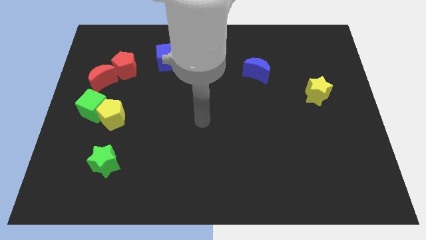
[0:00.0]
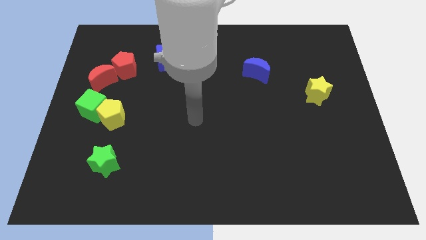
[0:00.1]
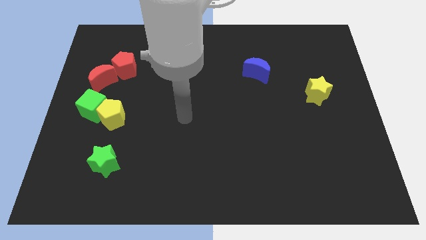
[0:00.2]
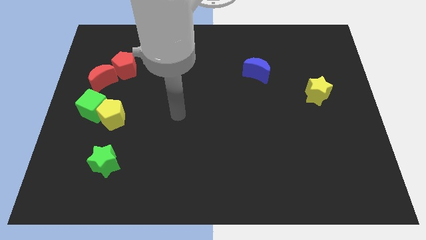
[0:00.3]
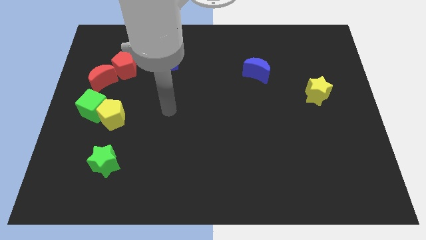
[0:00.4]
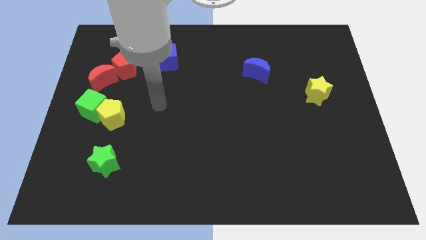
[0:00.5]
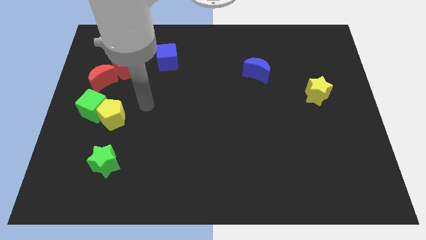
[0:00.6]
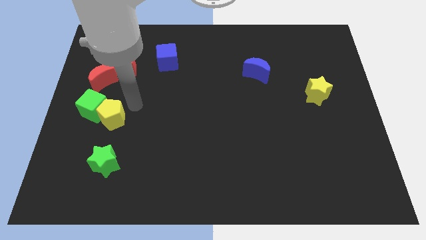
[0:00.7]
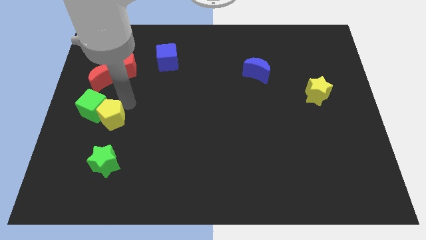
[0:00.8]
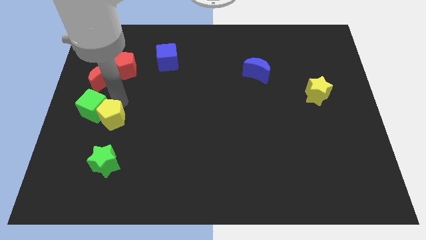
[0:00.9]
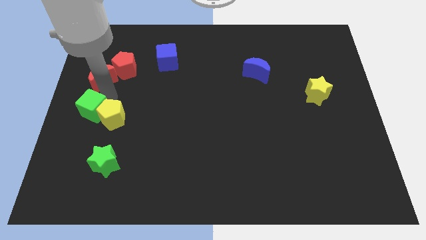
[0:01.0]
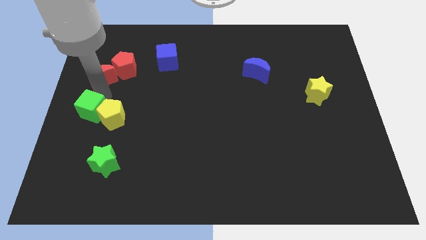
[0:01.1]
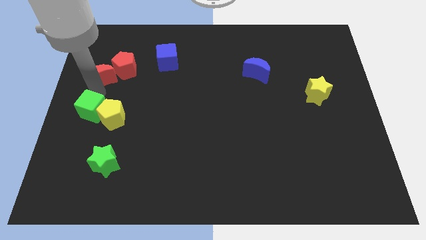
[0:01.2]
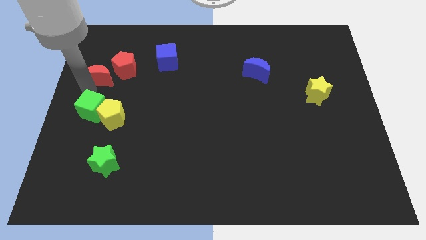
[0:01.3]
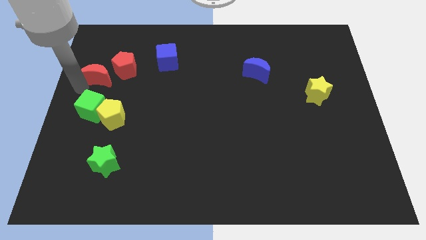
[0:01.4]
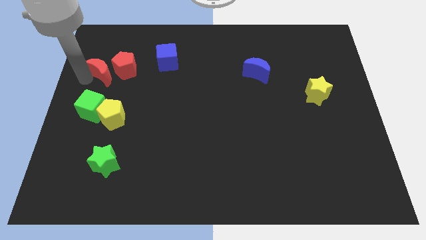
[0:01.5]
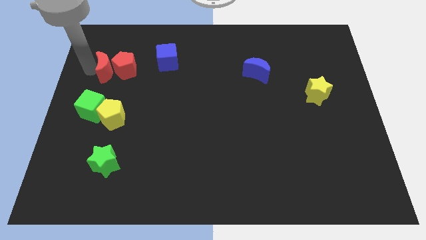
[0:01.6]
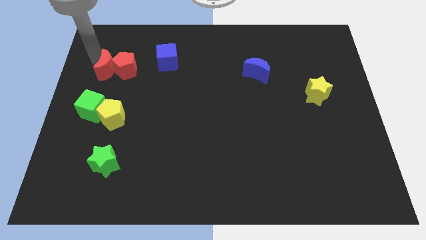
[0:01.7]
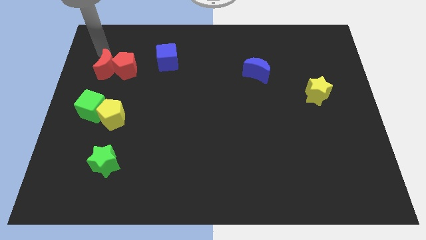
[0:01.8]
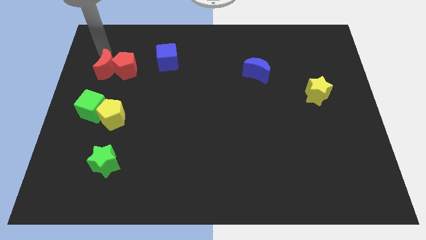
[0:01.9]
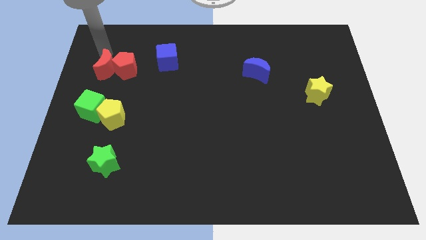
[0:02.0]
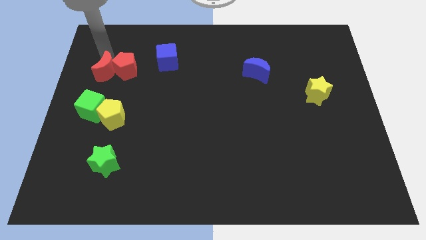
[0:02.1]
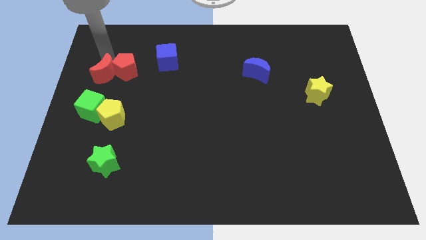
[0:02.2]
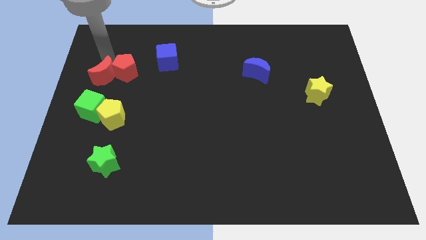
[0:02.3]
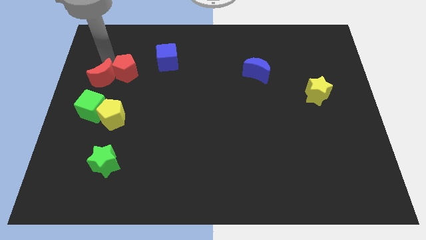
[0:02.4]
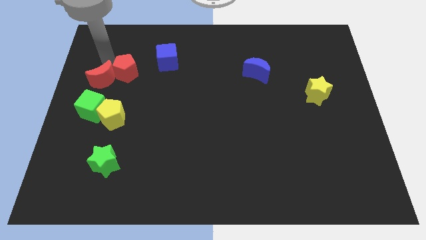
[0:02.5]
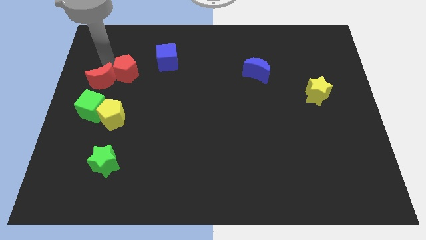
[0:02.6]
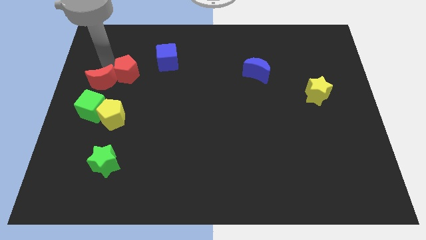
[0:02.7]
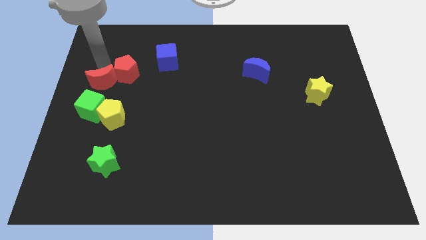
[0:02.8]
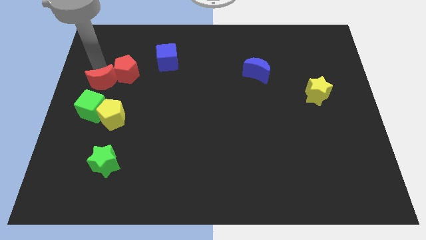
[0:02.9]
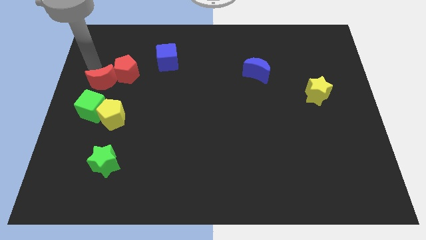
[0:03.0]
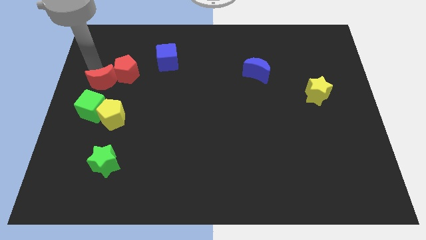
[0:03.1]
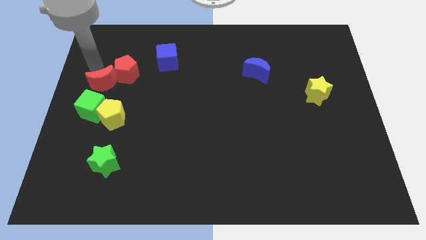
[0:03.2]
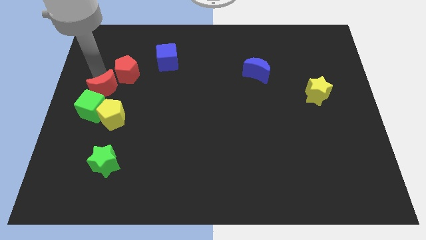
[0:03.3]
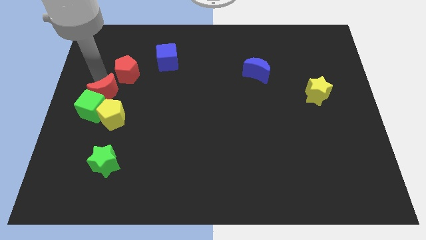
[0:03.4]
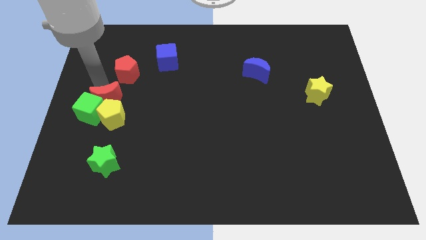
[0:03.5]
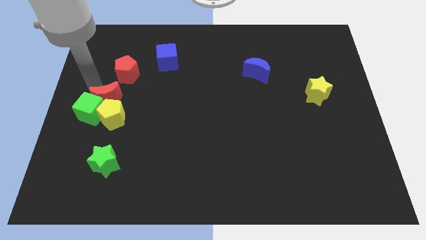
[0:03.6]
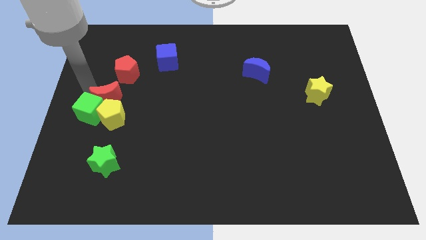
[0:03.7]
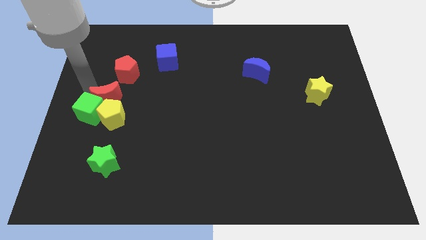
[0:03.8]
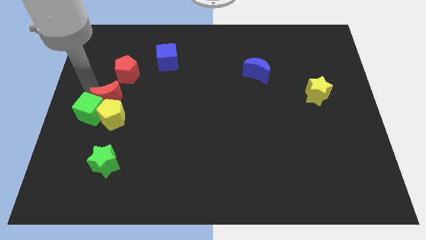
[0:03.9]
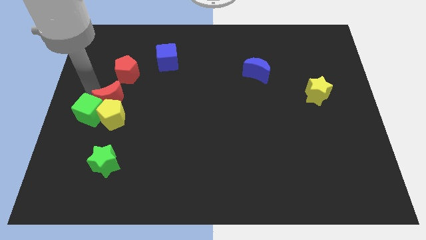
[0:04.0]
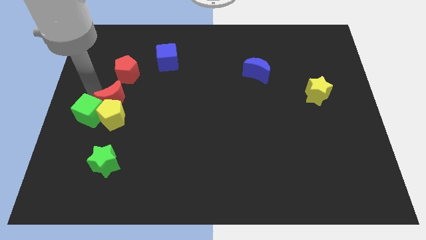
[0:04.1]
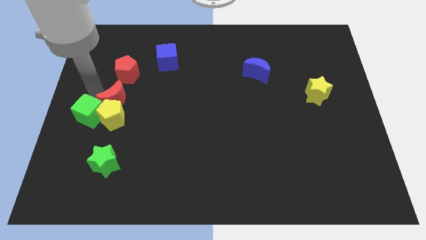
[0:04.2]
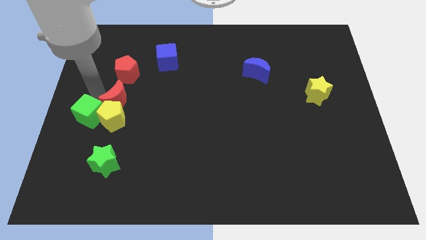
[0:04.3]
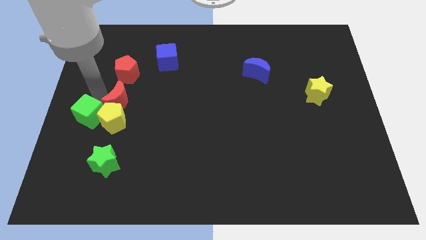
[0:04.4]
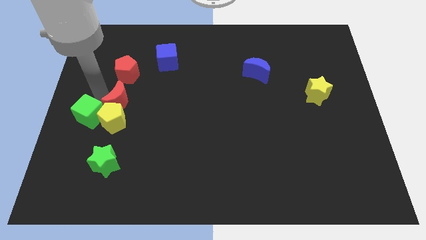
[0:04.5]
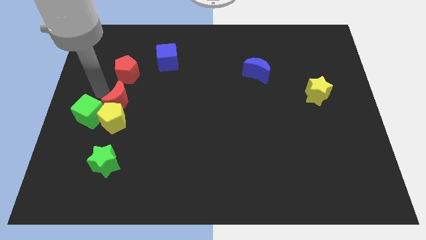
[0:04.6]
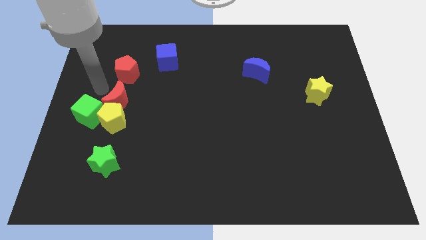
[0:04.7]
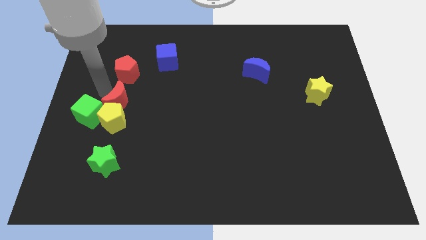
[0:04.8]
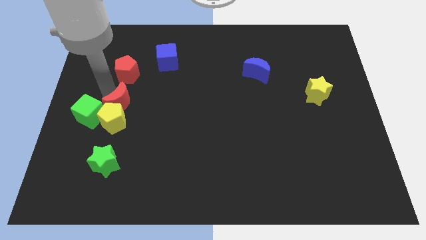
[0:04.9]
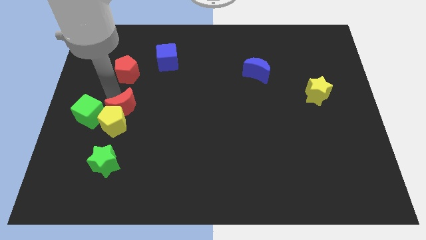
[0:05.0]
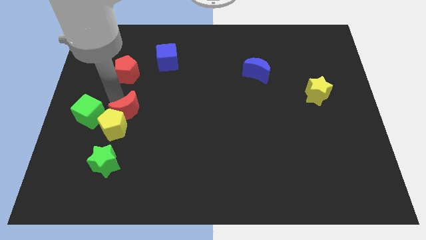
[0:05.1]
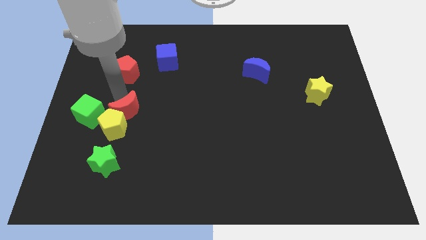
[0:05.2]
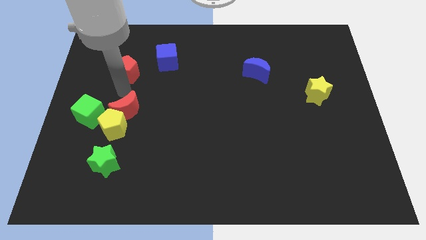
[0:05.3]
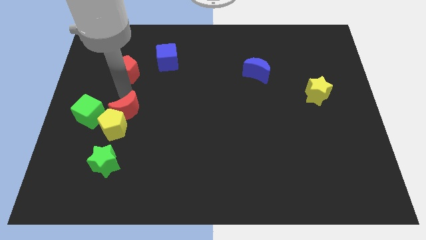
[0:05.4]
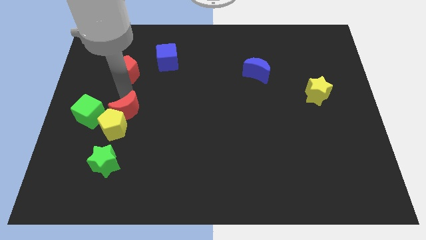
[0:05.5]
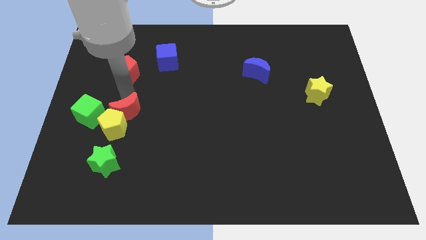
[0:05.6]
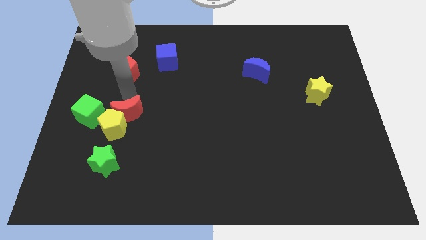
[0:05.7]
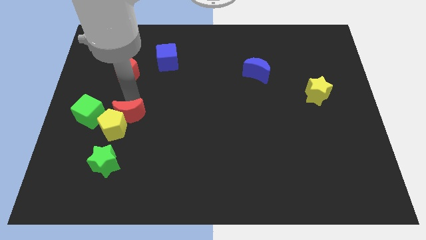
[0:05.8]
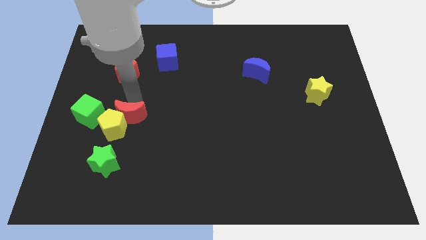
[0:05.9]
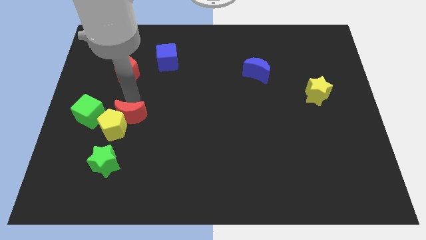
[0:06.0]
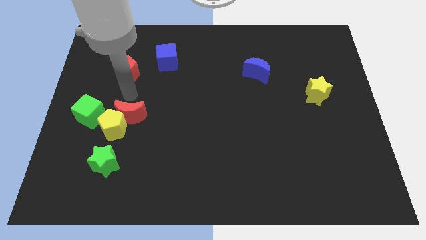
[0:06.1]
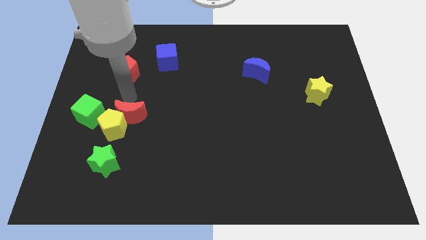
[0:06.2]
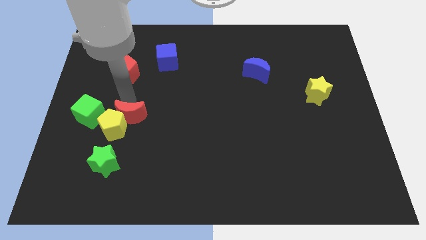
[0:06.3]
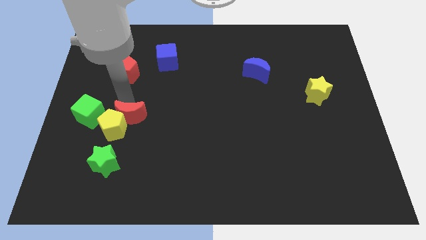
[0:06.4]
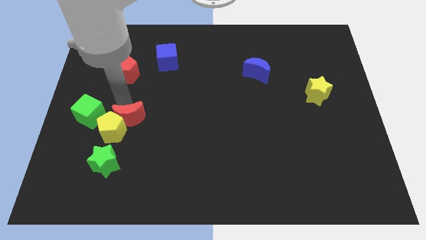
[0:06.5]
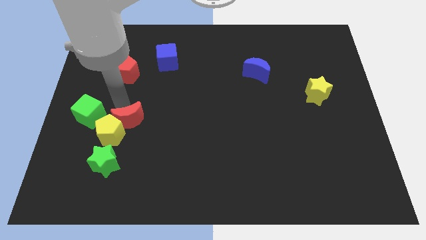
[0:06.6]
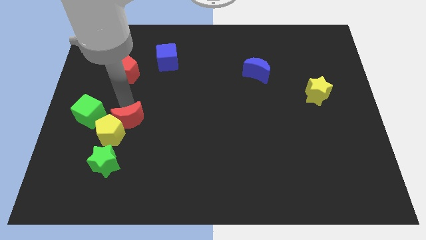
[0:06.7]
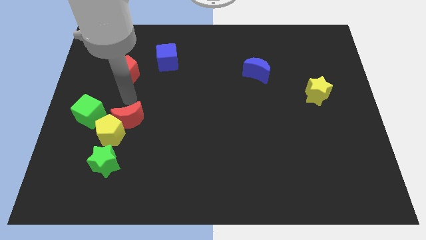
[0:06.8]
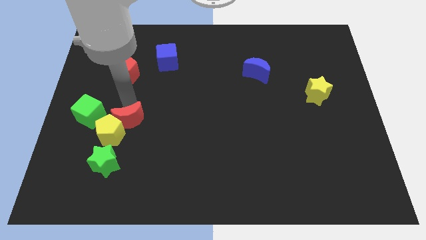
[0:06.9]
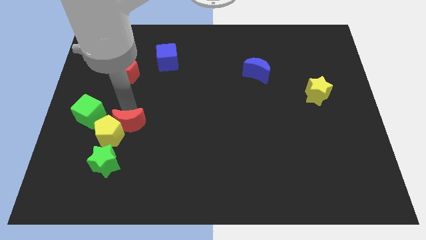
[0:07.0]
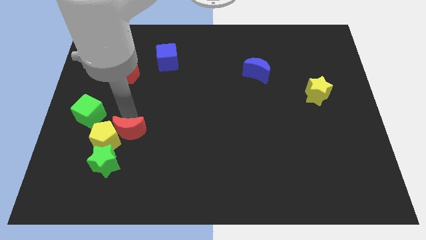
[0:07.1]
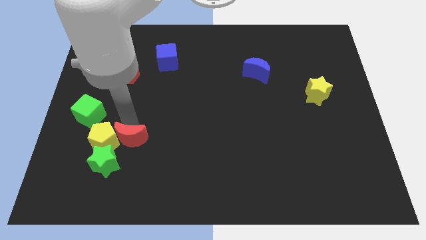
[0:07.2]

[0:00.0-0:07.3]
push the red moon to the bottom right of the yellow pentagon
